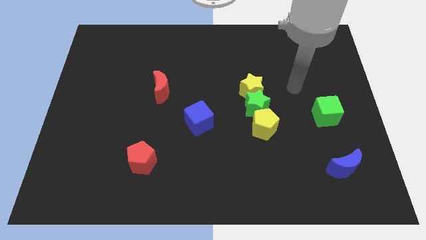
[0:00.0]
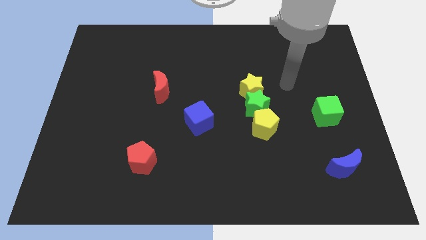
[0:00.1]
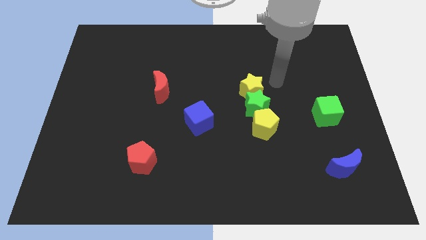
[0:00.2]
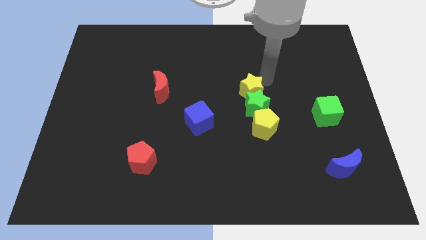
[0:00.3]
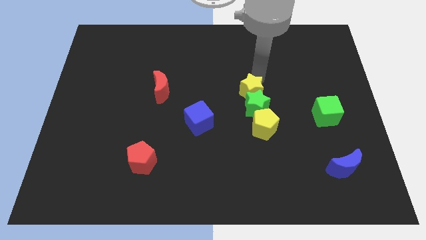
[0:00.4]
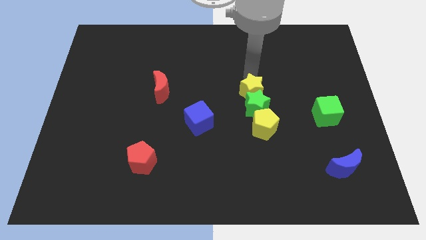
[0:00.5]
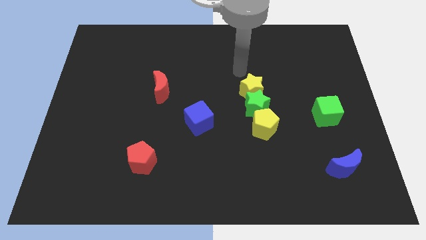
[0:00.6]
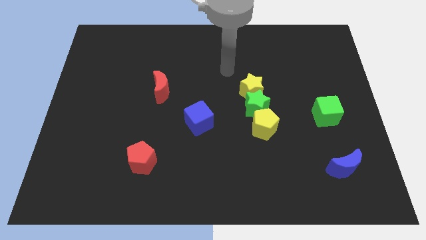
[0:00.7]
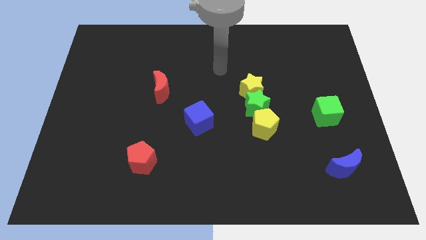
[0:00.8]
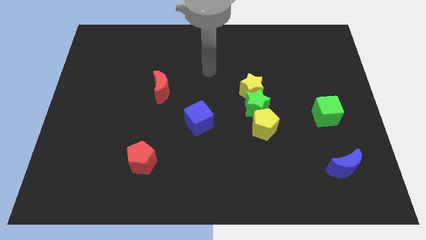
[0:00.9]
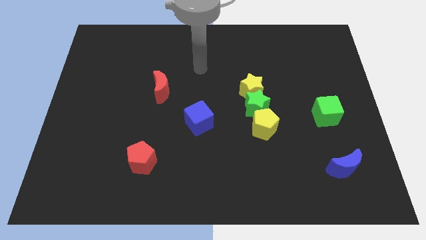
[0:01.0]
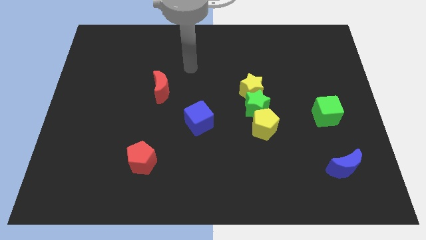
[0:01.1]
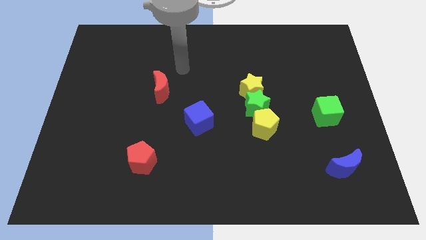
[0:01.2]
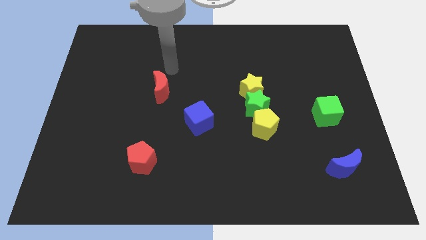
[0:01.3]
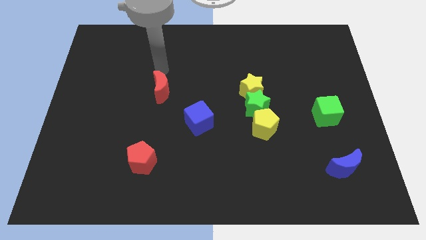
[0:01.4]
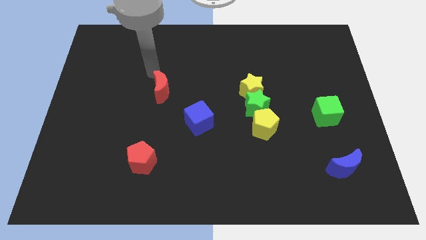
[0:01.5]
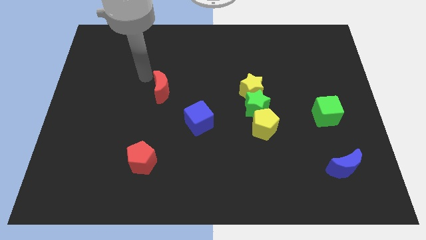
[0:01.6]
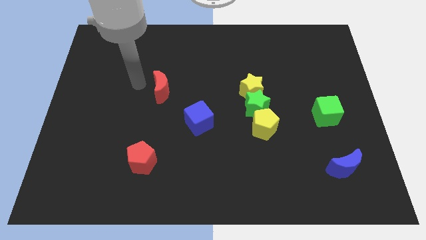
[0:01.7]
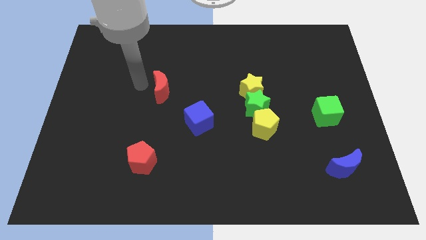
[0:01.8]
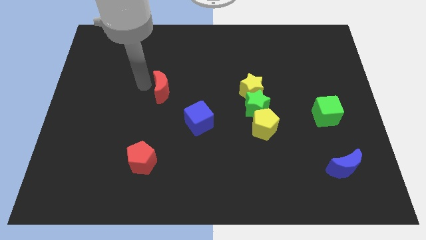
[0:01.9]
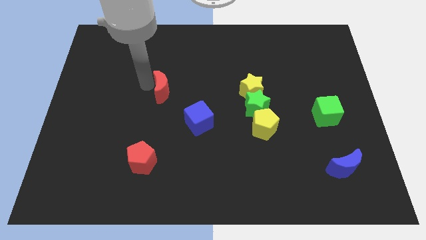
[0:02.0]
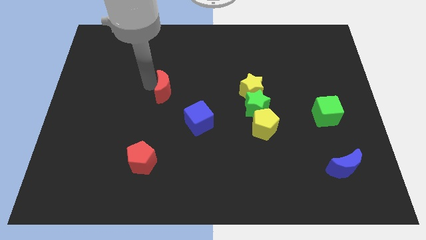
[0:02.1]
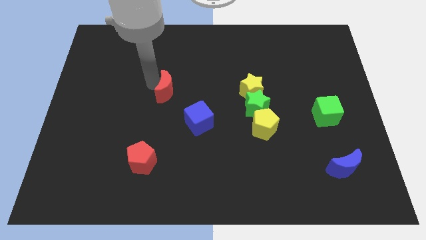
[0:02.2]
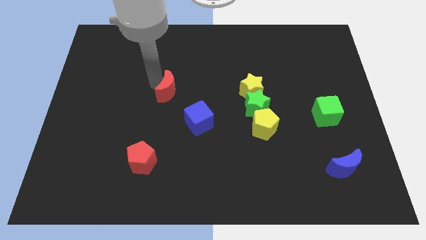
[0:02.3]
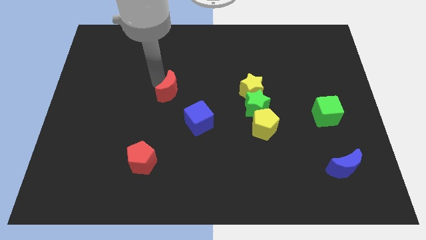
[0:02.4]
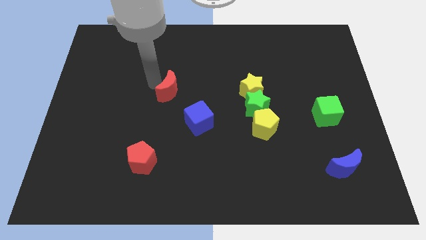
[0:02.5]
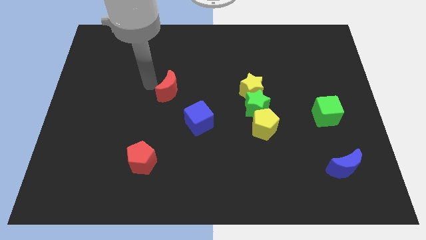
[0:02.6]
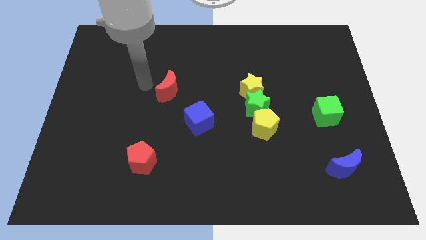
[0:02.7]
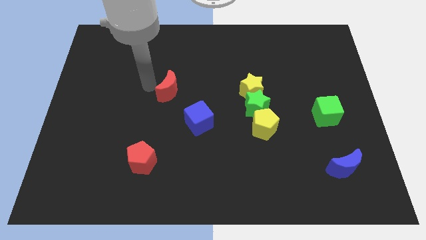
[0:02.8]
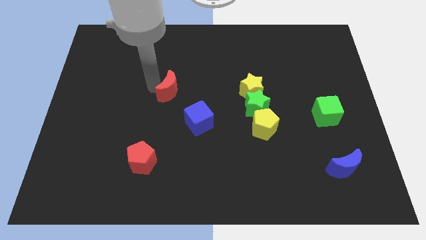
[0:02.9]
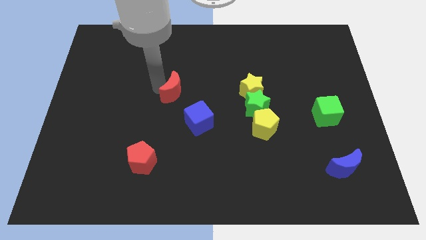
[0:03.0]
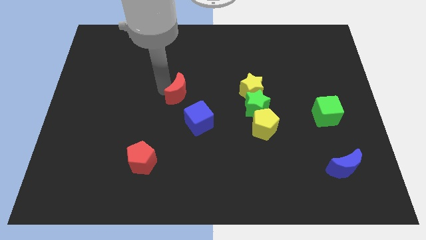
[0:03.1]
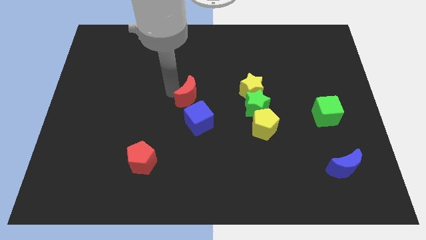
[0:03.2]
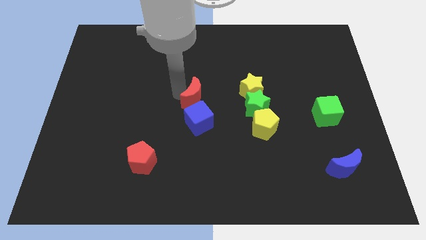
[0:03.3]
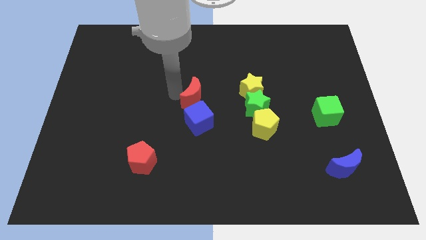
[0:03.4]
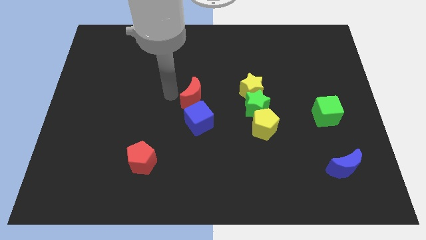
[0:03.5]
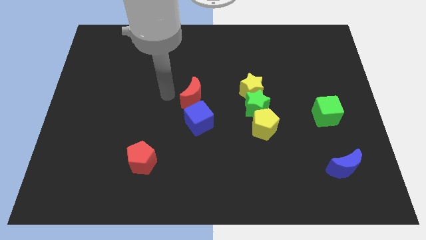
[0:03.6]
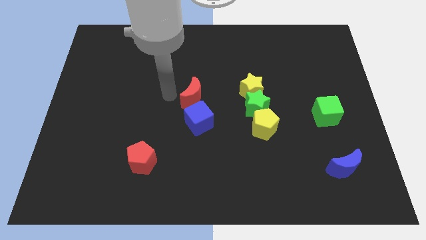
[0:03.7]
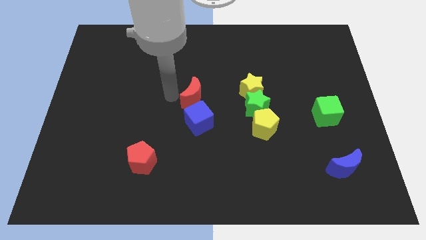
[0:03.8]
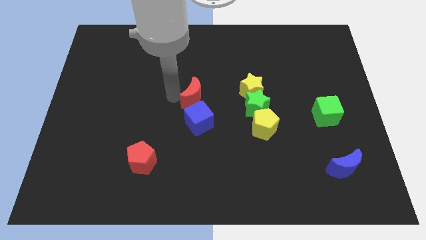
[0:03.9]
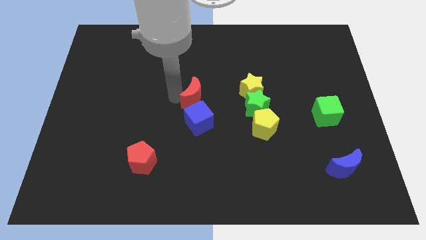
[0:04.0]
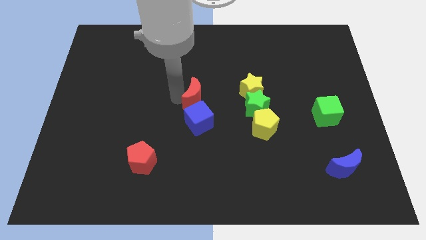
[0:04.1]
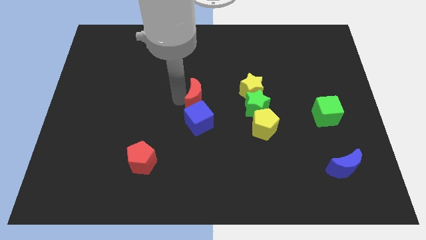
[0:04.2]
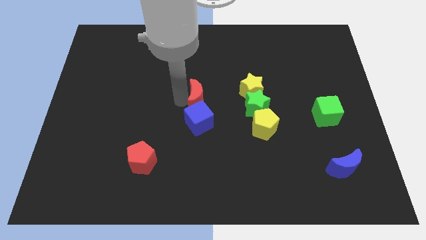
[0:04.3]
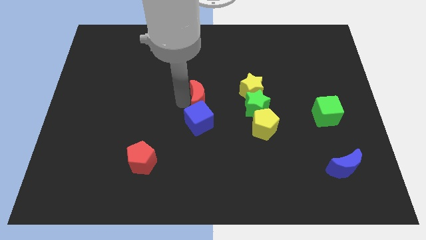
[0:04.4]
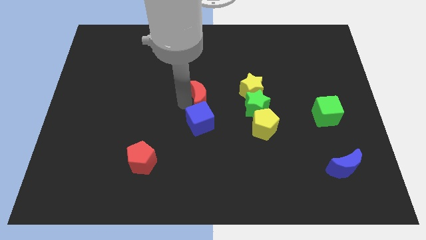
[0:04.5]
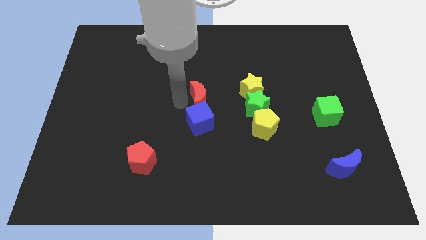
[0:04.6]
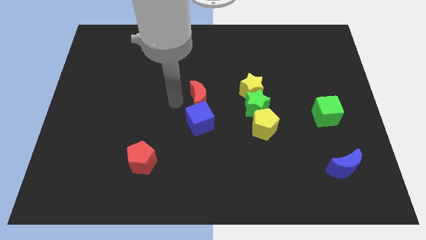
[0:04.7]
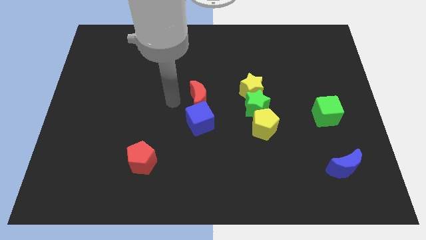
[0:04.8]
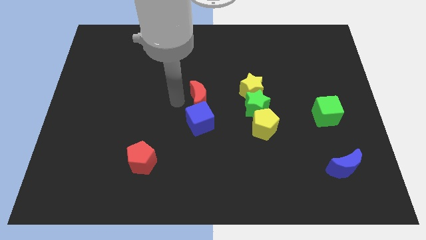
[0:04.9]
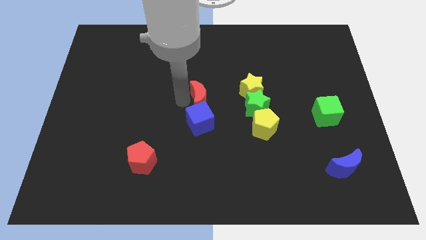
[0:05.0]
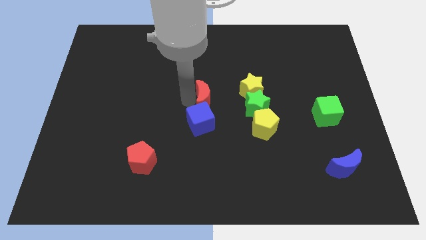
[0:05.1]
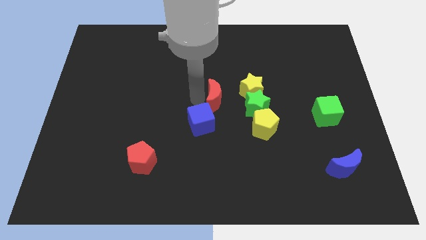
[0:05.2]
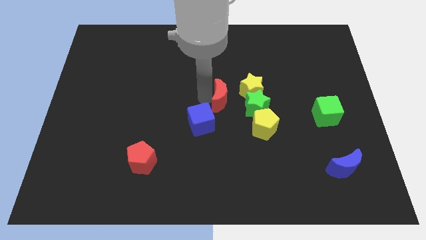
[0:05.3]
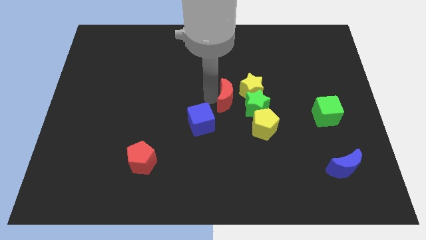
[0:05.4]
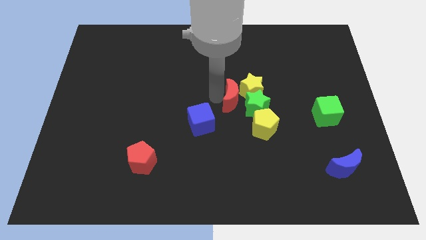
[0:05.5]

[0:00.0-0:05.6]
push the red moon next to the green star

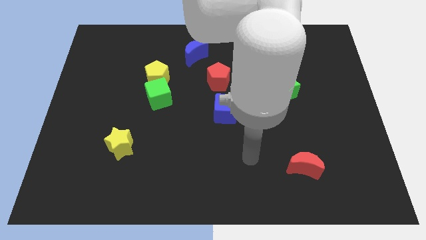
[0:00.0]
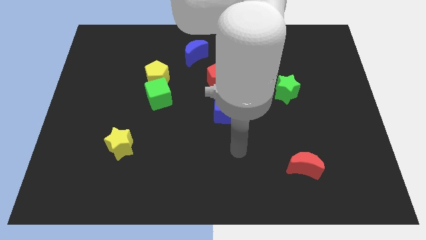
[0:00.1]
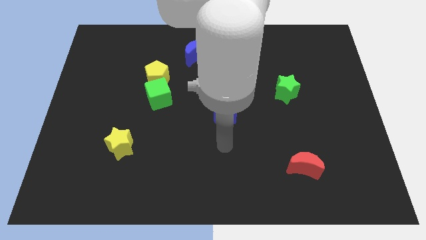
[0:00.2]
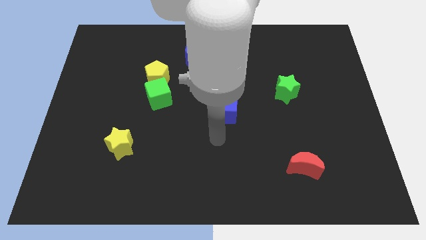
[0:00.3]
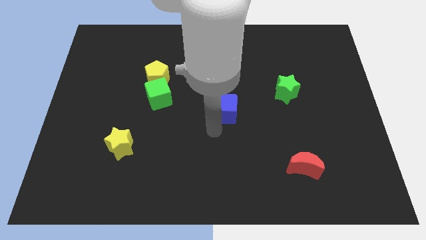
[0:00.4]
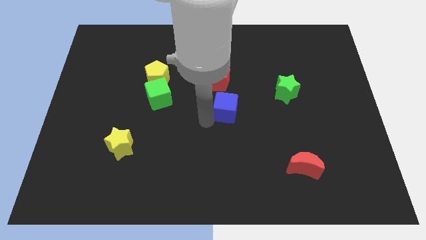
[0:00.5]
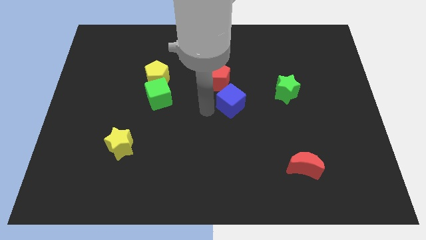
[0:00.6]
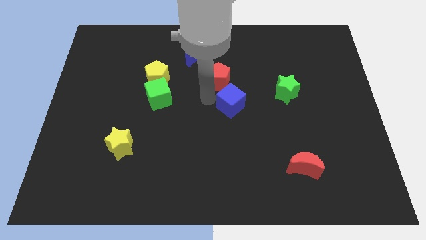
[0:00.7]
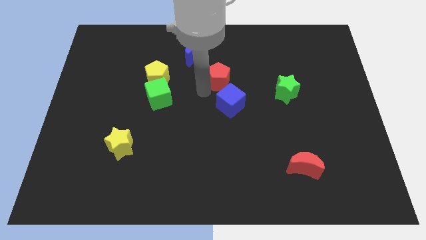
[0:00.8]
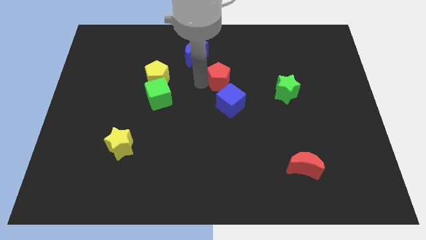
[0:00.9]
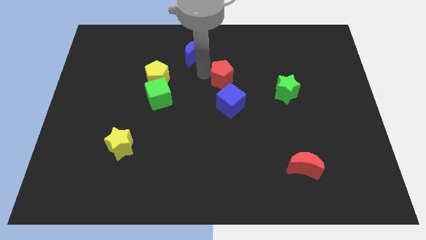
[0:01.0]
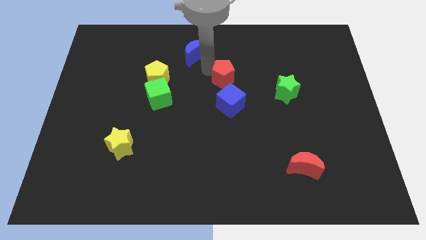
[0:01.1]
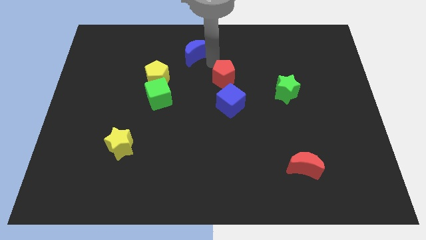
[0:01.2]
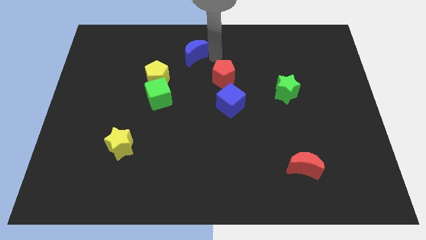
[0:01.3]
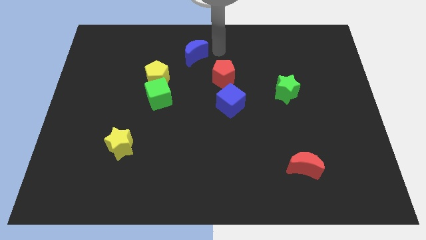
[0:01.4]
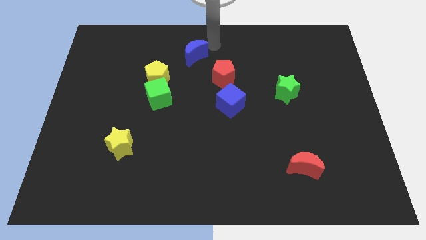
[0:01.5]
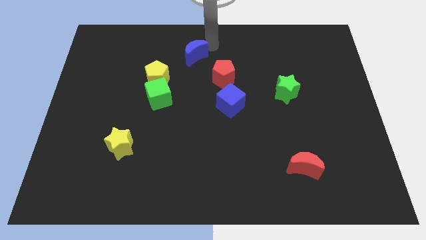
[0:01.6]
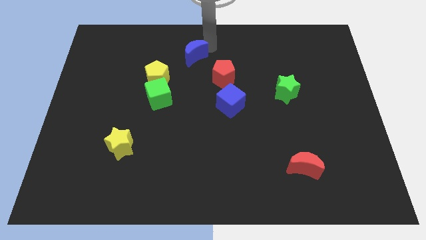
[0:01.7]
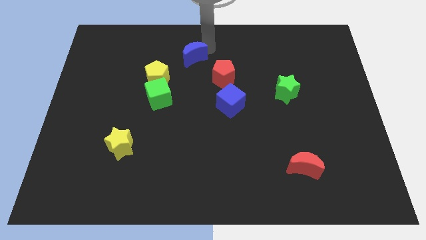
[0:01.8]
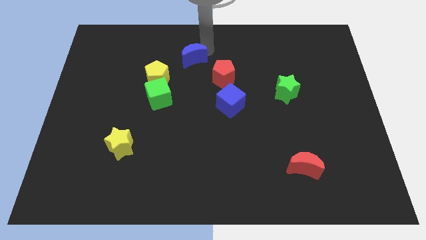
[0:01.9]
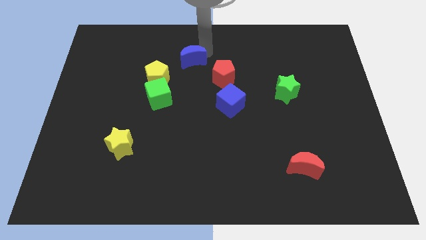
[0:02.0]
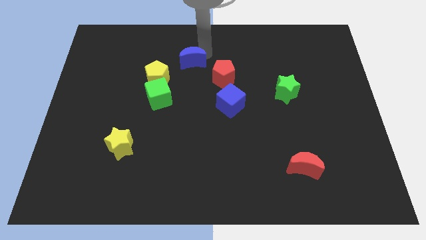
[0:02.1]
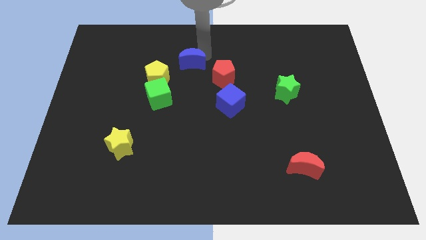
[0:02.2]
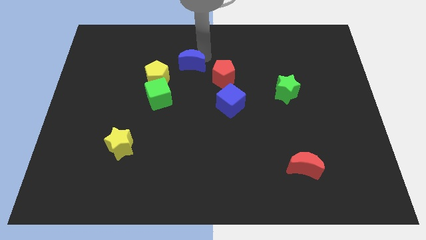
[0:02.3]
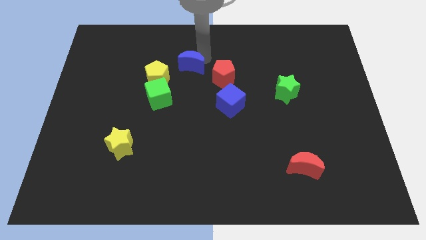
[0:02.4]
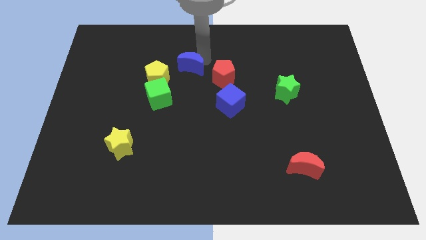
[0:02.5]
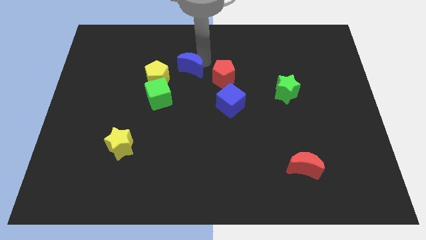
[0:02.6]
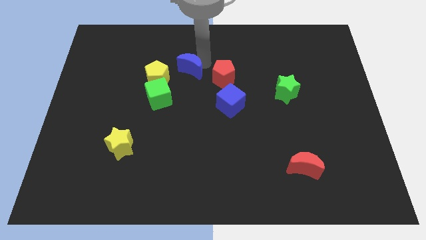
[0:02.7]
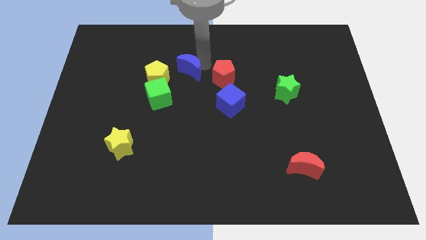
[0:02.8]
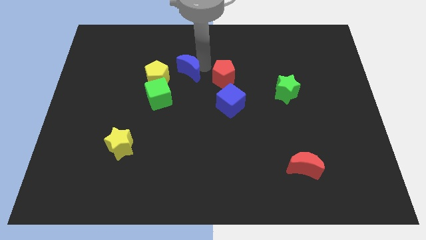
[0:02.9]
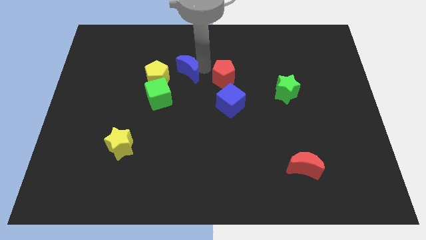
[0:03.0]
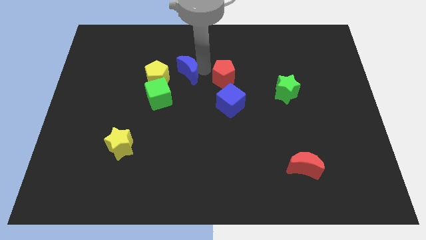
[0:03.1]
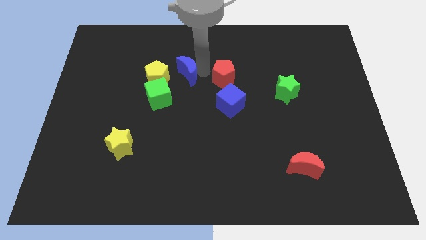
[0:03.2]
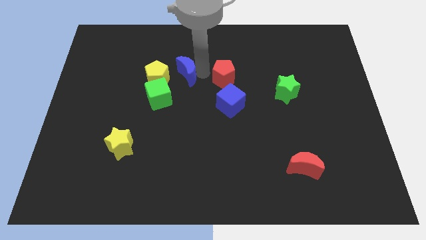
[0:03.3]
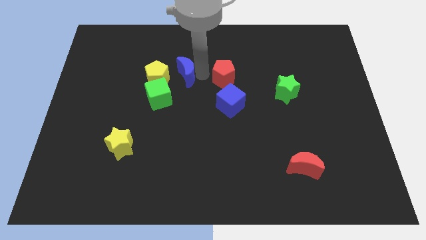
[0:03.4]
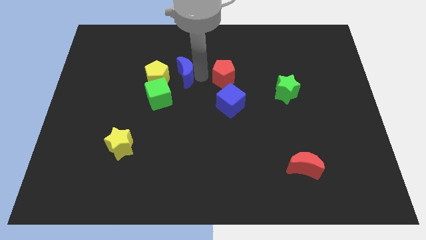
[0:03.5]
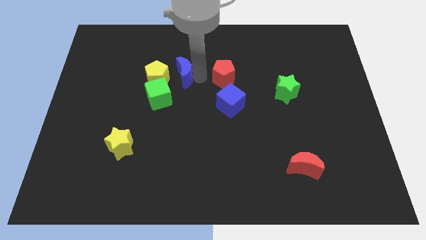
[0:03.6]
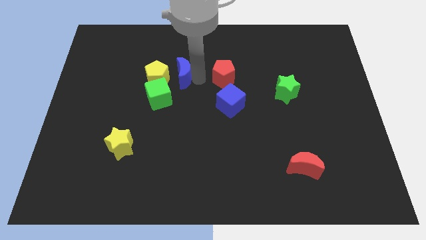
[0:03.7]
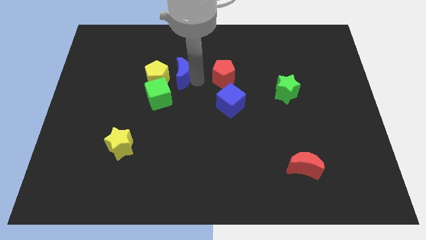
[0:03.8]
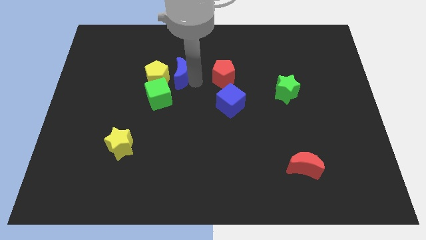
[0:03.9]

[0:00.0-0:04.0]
move the blue moon to the yellow pentagon
